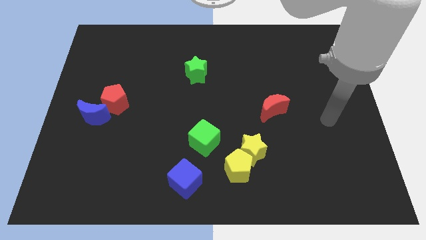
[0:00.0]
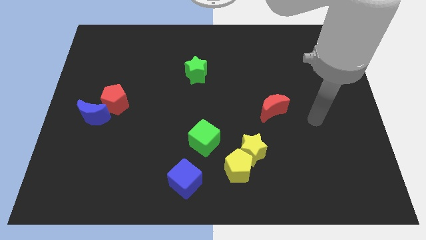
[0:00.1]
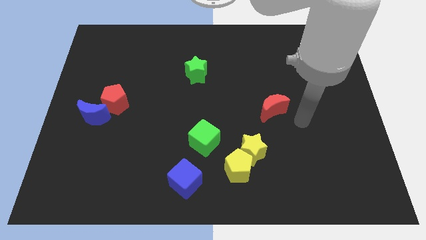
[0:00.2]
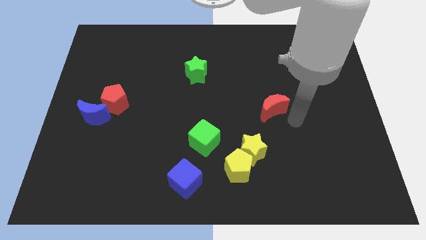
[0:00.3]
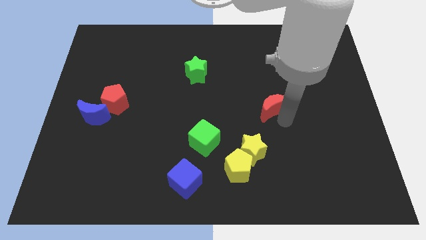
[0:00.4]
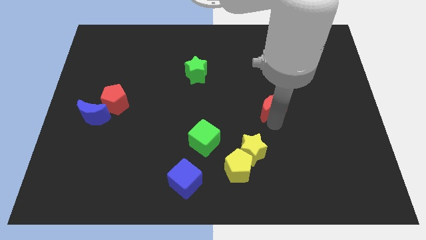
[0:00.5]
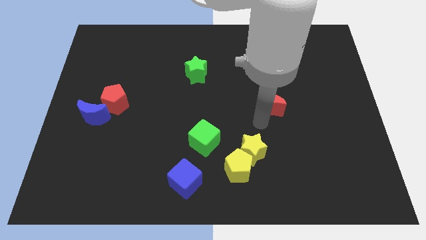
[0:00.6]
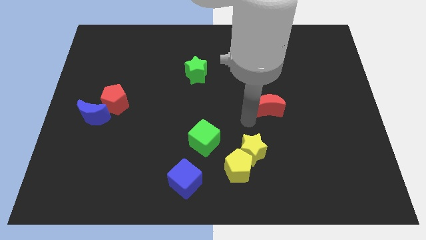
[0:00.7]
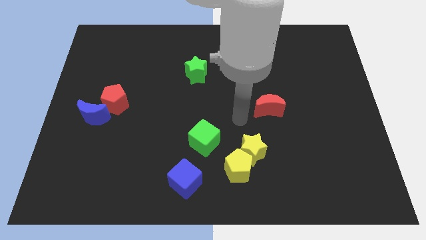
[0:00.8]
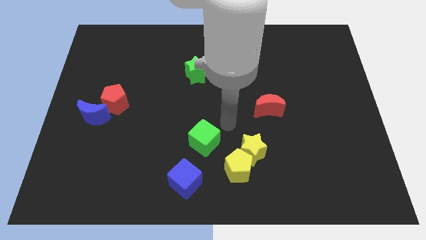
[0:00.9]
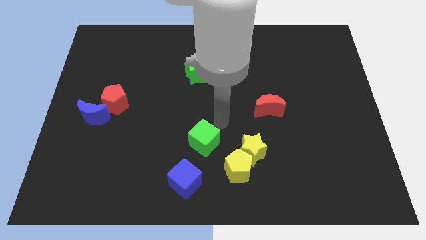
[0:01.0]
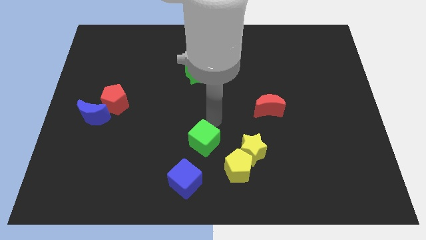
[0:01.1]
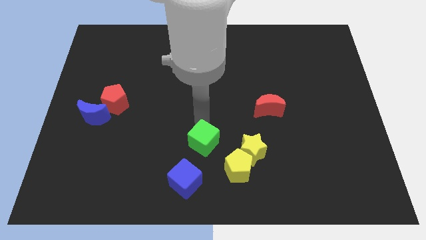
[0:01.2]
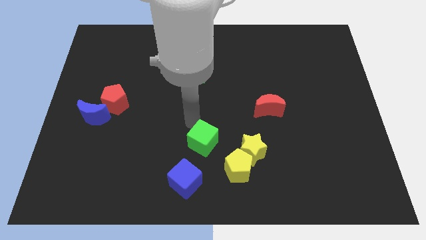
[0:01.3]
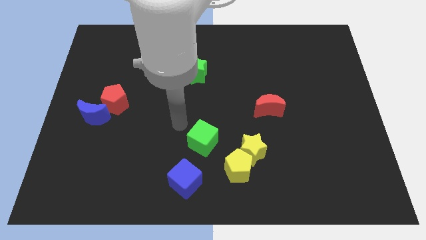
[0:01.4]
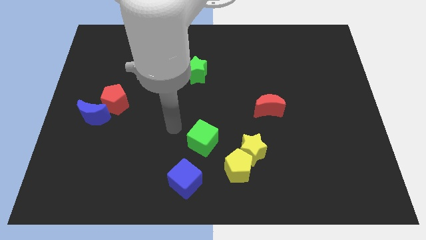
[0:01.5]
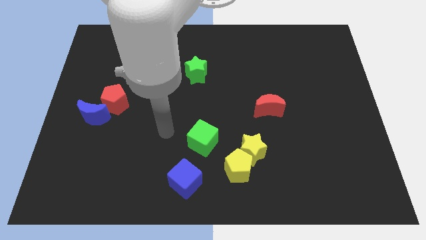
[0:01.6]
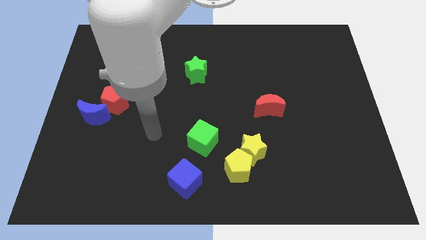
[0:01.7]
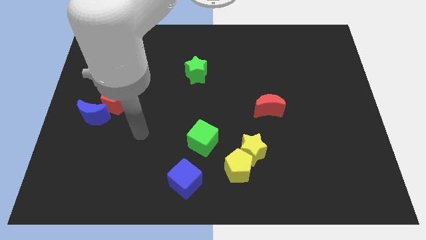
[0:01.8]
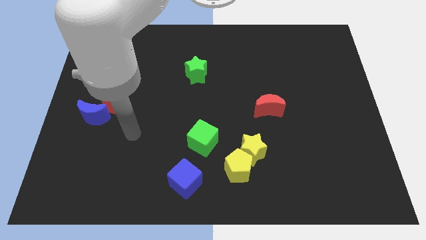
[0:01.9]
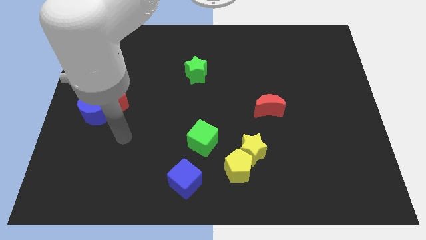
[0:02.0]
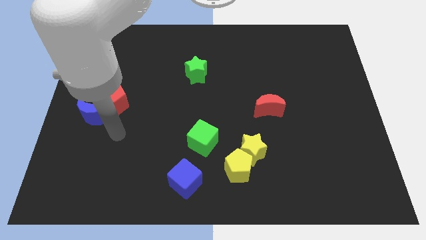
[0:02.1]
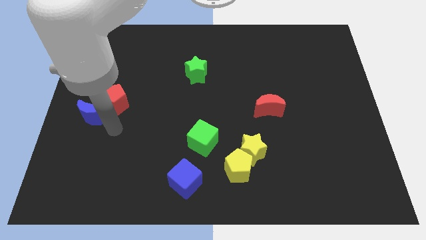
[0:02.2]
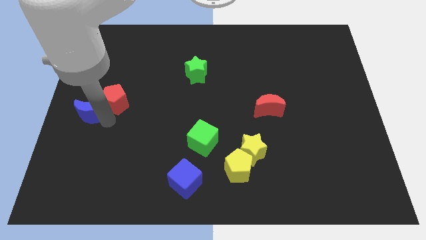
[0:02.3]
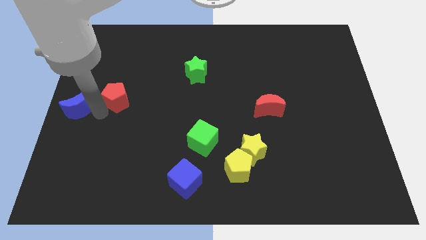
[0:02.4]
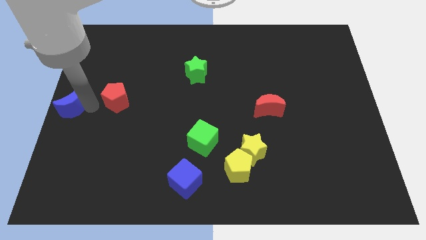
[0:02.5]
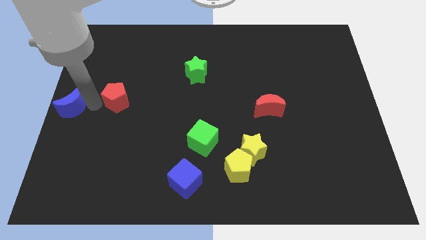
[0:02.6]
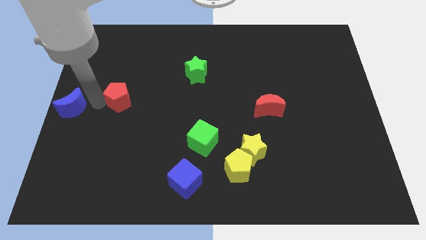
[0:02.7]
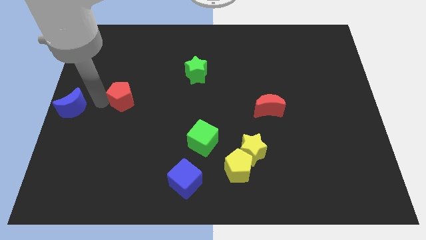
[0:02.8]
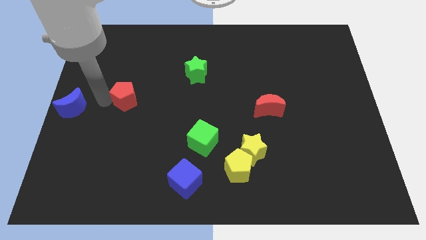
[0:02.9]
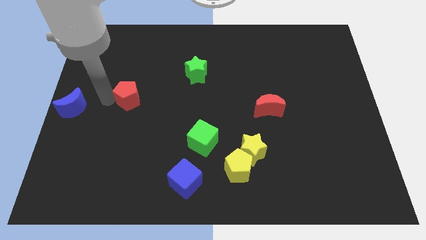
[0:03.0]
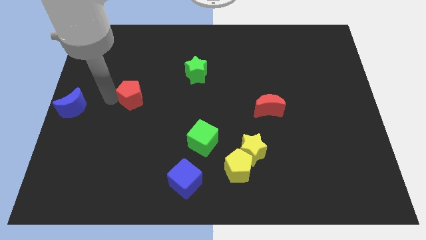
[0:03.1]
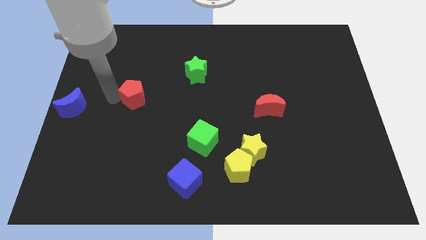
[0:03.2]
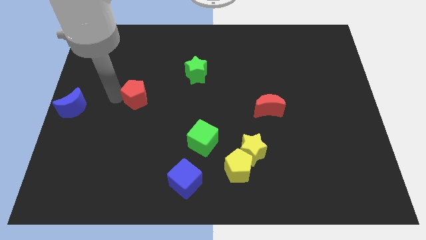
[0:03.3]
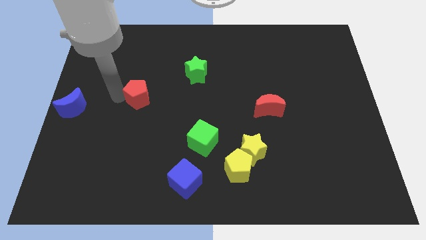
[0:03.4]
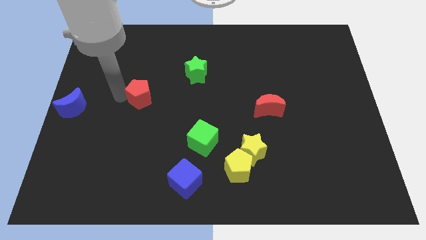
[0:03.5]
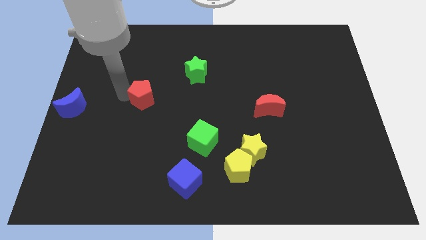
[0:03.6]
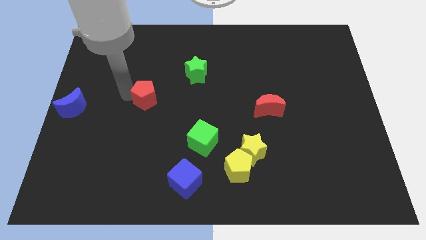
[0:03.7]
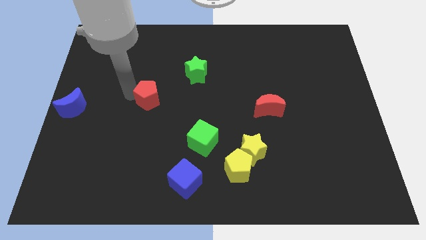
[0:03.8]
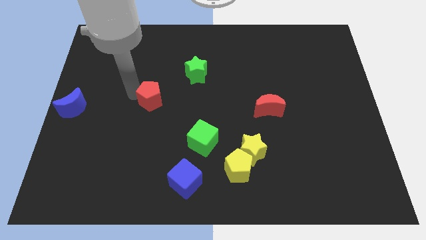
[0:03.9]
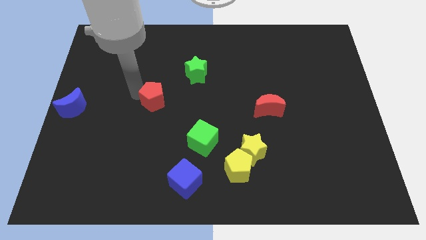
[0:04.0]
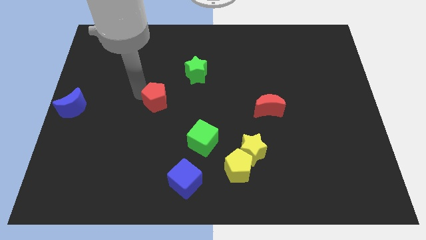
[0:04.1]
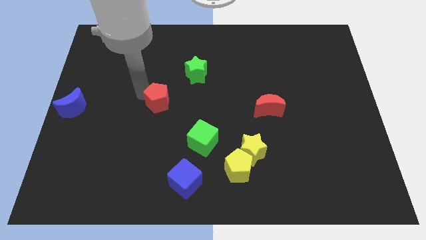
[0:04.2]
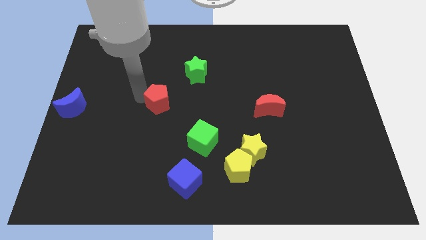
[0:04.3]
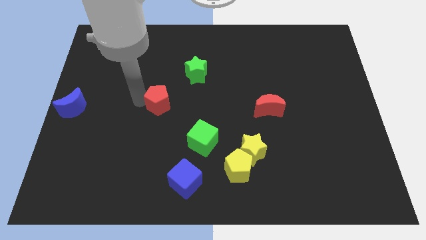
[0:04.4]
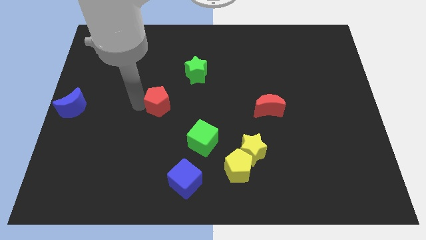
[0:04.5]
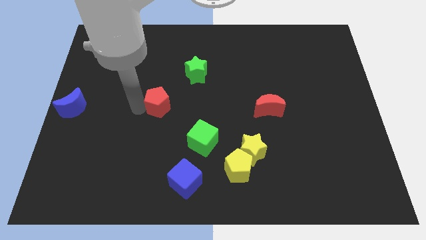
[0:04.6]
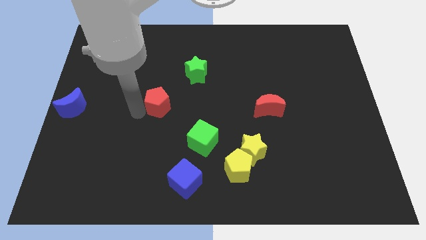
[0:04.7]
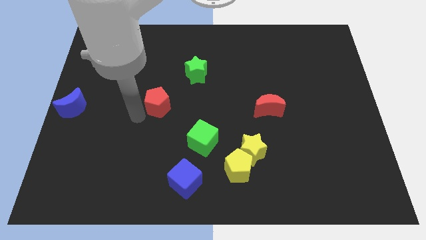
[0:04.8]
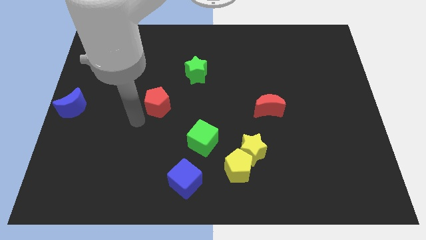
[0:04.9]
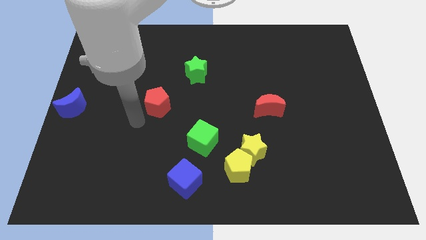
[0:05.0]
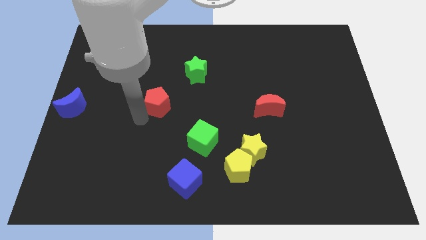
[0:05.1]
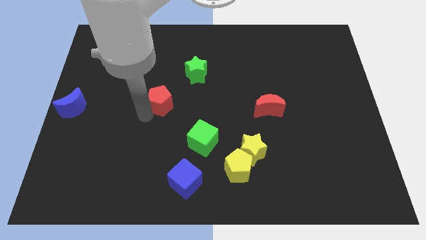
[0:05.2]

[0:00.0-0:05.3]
move the red pentagon to the middle

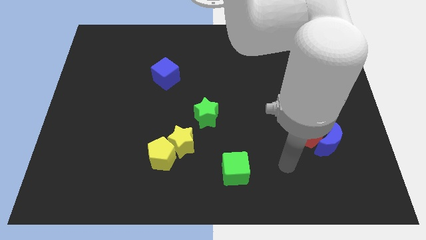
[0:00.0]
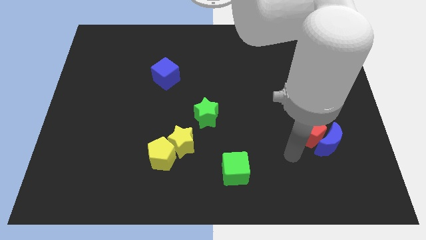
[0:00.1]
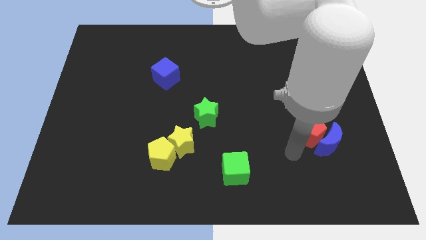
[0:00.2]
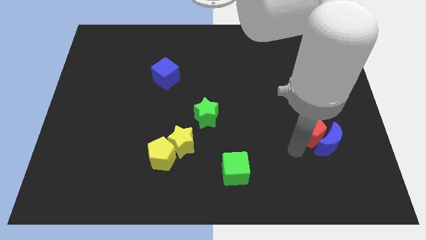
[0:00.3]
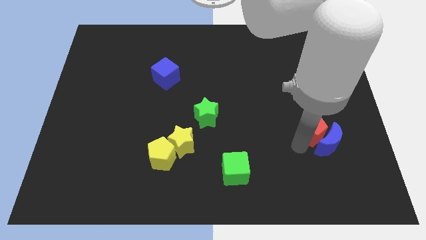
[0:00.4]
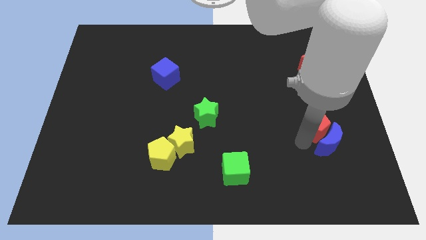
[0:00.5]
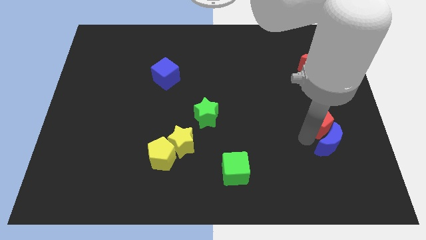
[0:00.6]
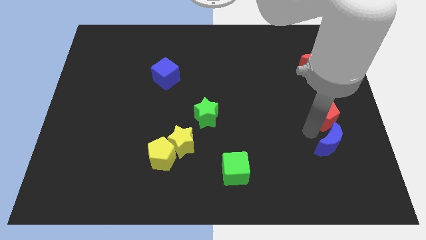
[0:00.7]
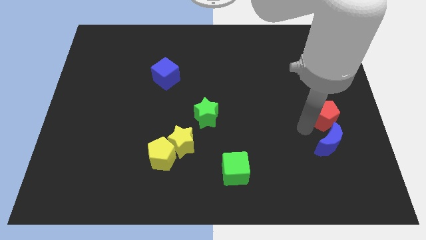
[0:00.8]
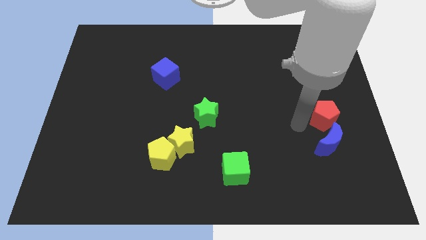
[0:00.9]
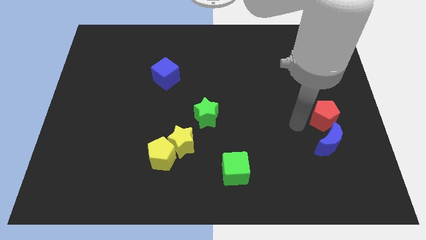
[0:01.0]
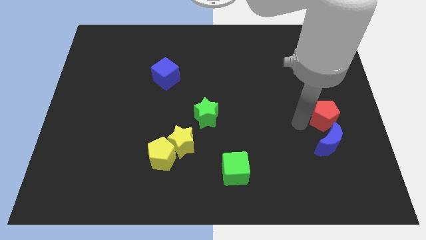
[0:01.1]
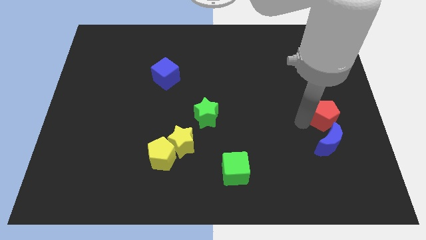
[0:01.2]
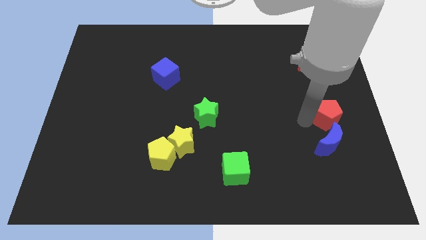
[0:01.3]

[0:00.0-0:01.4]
push the red pentagon to the right side
